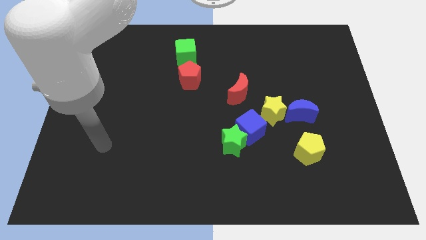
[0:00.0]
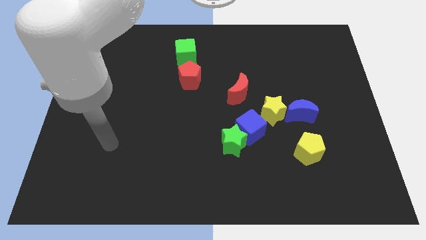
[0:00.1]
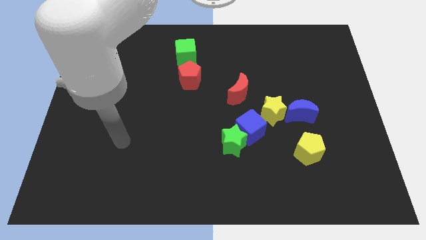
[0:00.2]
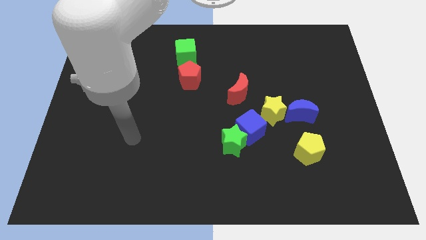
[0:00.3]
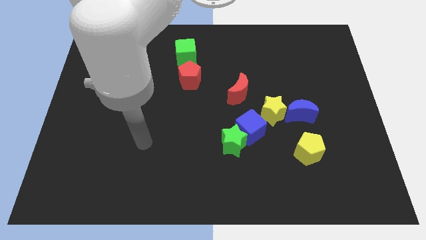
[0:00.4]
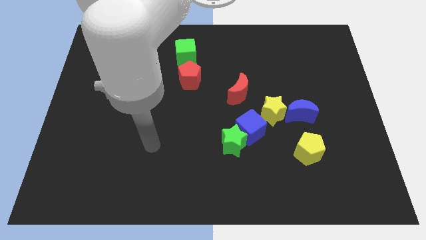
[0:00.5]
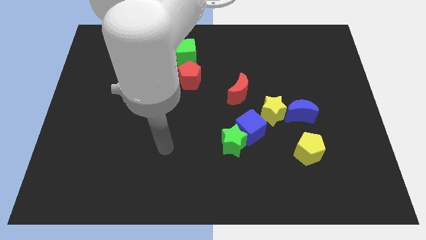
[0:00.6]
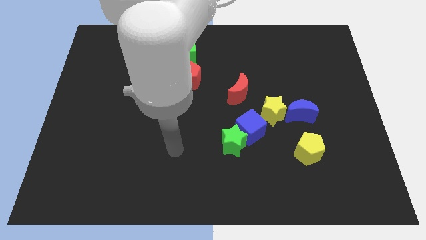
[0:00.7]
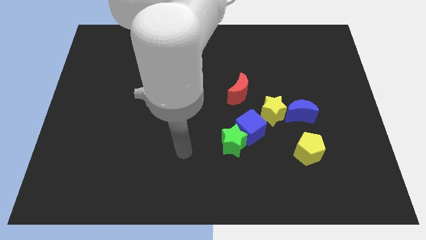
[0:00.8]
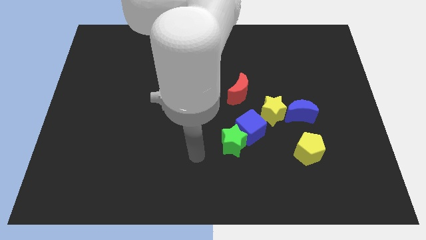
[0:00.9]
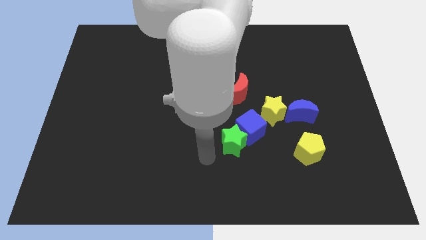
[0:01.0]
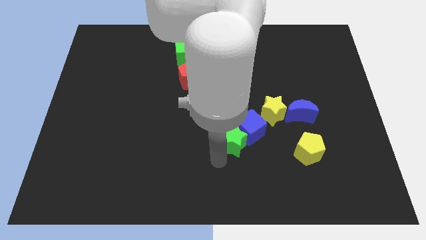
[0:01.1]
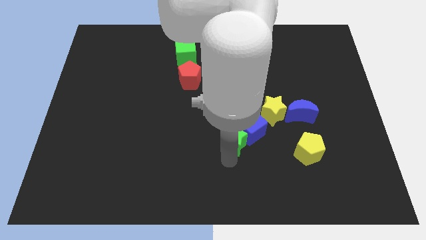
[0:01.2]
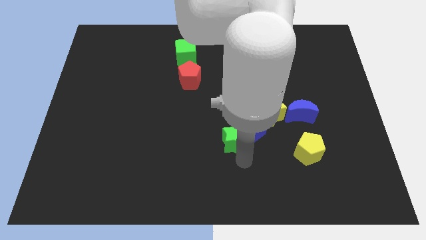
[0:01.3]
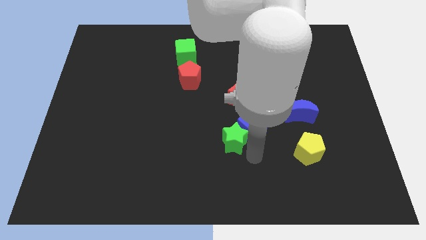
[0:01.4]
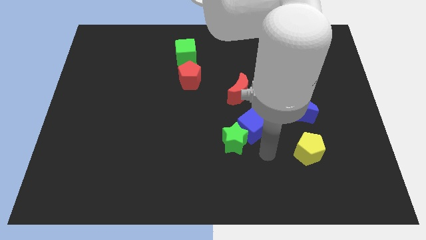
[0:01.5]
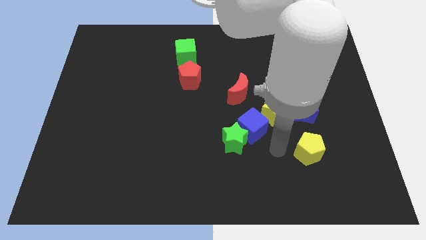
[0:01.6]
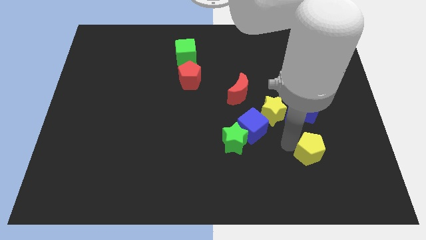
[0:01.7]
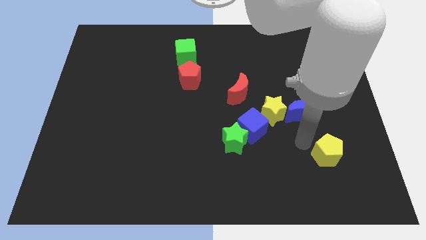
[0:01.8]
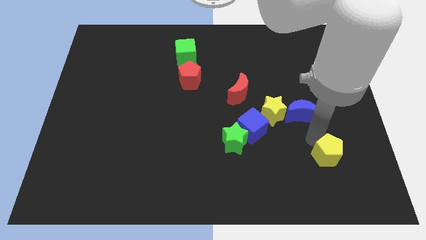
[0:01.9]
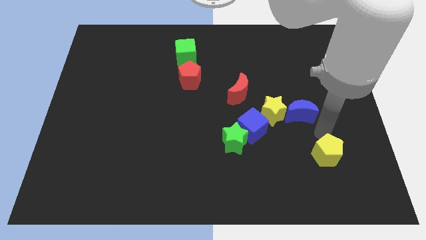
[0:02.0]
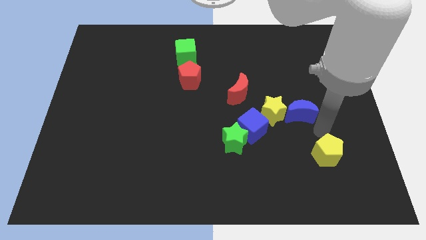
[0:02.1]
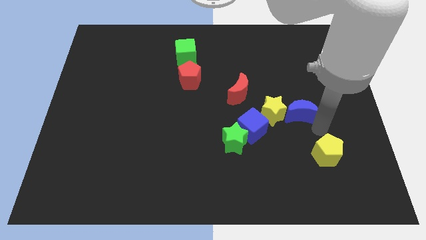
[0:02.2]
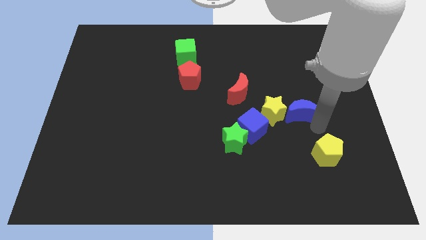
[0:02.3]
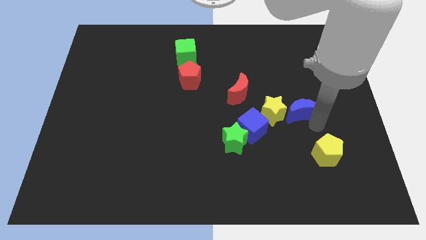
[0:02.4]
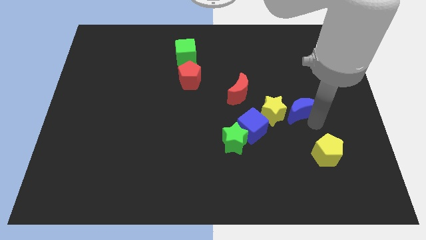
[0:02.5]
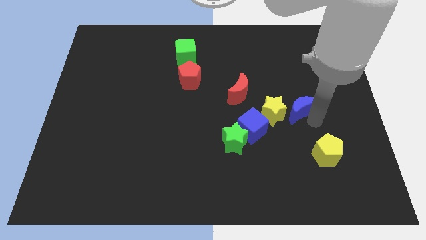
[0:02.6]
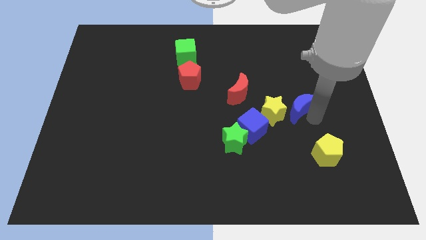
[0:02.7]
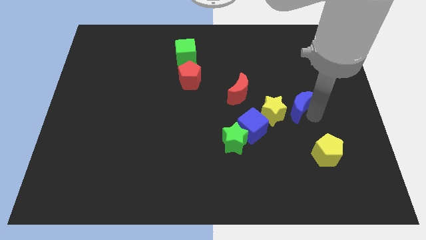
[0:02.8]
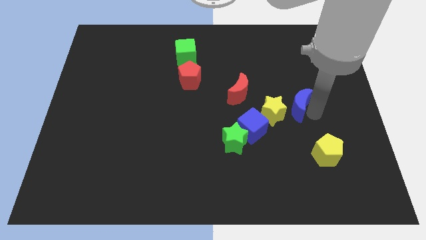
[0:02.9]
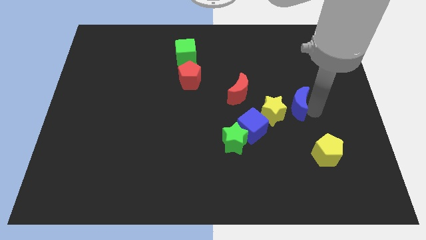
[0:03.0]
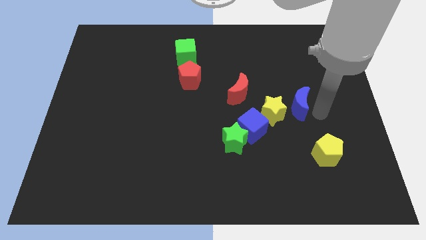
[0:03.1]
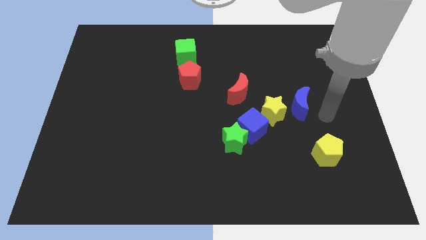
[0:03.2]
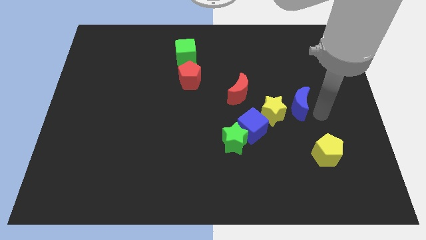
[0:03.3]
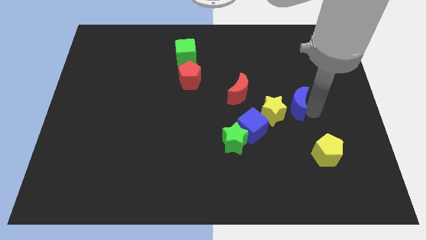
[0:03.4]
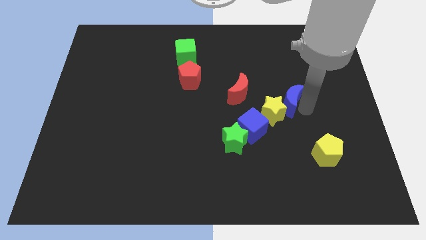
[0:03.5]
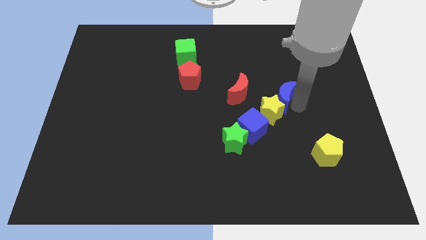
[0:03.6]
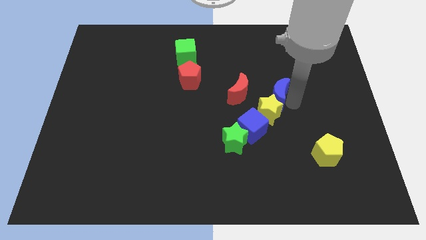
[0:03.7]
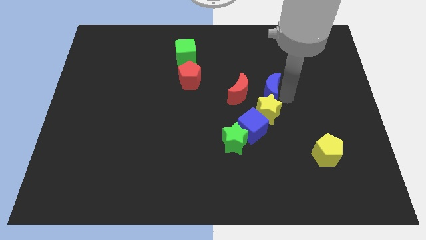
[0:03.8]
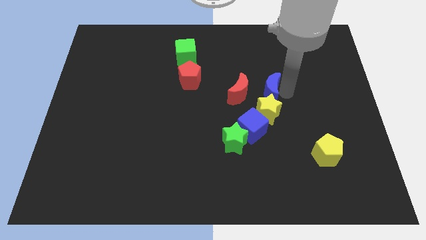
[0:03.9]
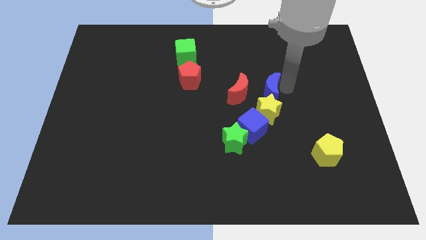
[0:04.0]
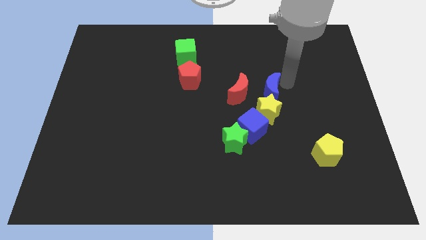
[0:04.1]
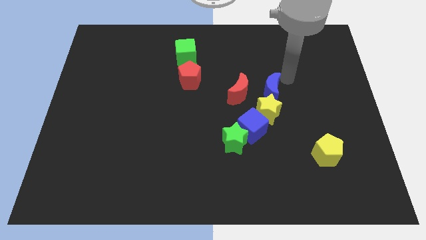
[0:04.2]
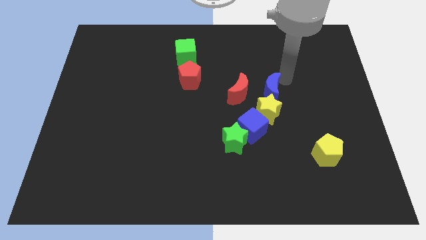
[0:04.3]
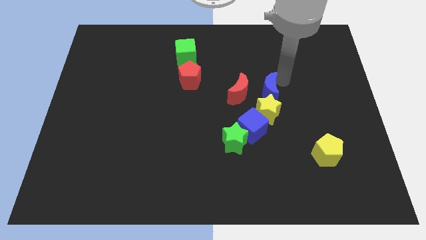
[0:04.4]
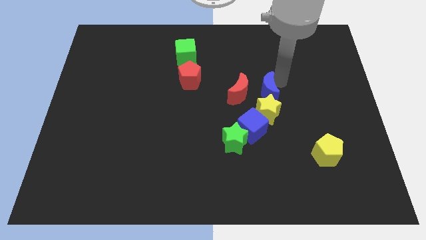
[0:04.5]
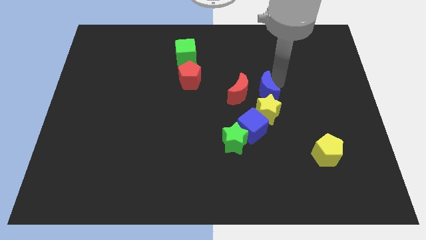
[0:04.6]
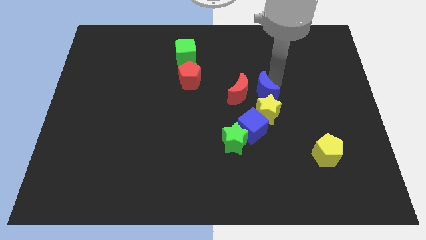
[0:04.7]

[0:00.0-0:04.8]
move the blue moon to the middle of the board

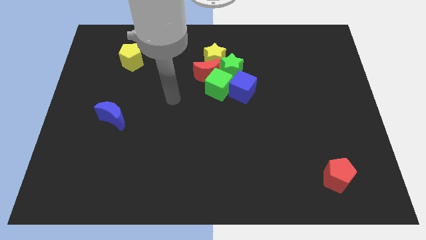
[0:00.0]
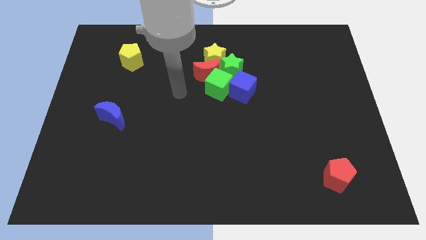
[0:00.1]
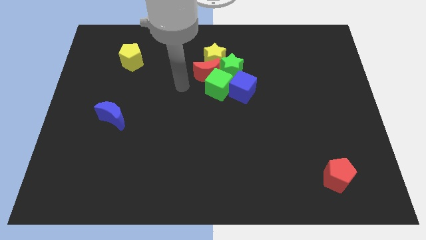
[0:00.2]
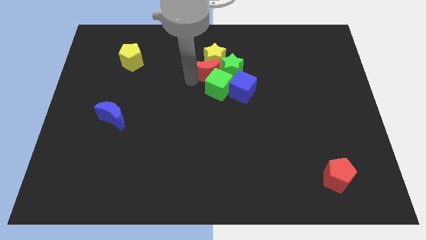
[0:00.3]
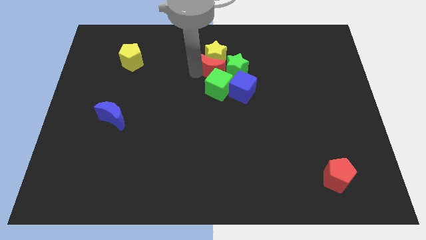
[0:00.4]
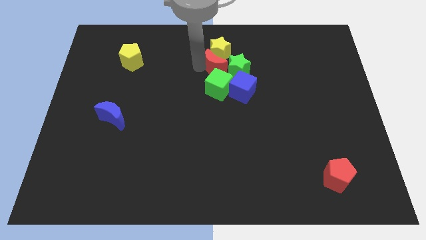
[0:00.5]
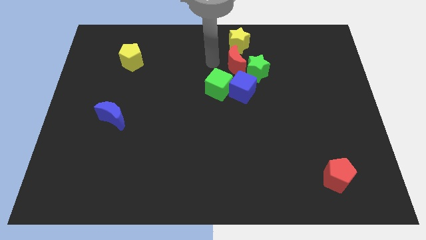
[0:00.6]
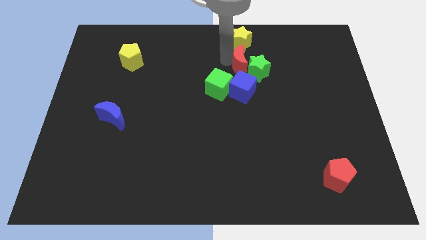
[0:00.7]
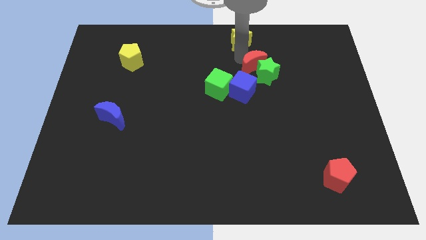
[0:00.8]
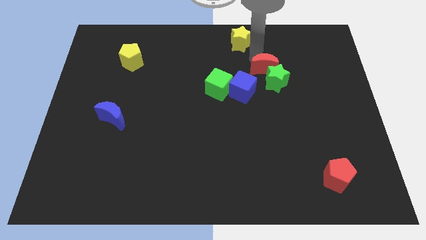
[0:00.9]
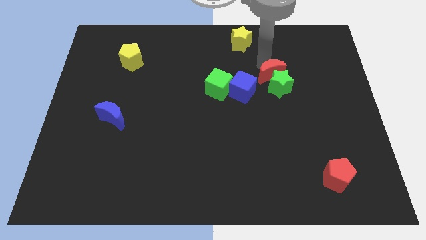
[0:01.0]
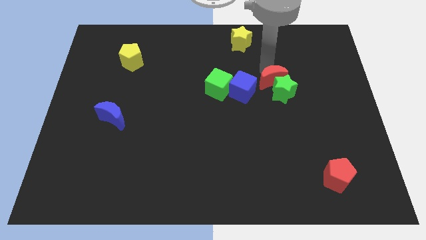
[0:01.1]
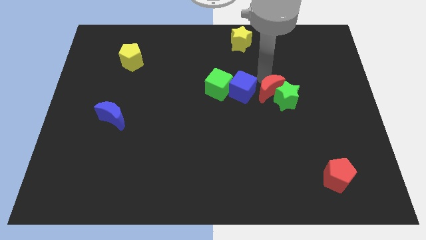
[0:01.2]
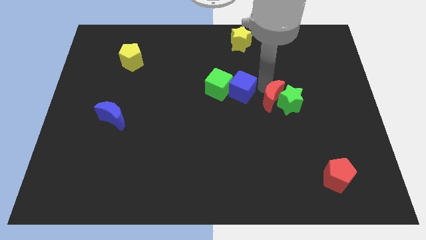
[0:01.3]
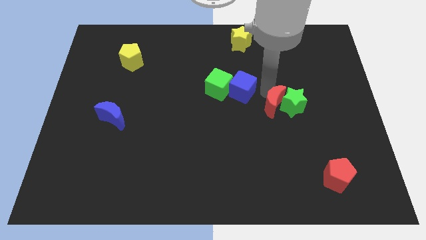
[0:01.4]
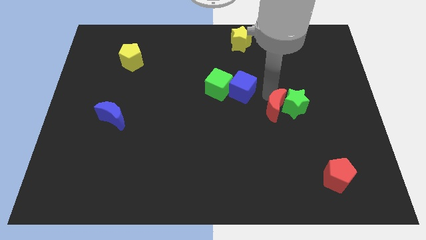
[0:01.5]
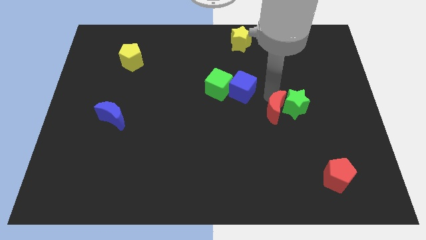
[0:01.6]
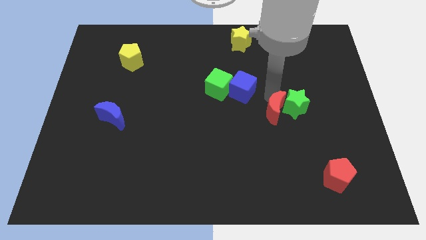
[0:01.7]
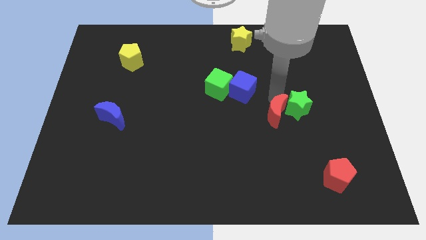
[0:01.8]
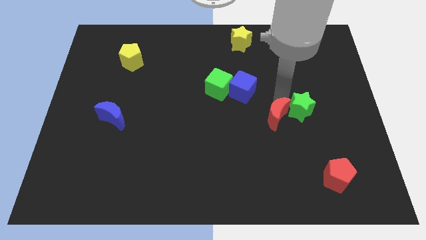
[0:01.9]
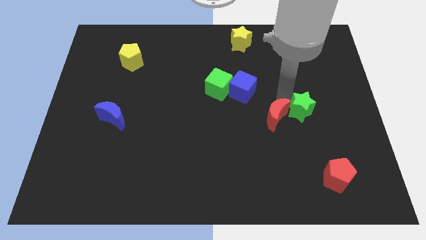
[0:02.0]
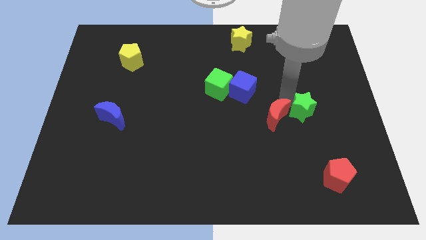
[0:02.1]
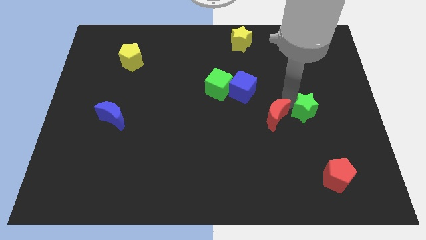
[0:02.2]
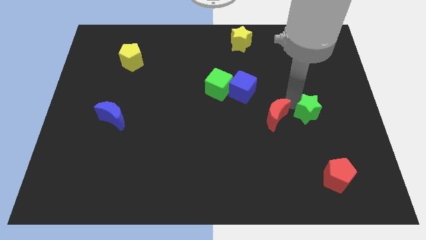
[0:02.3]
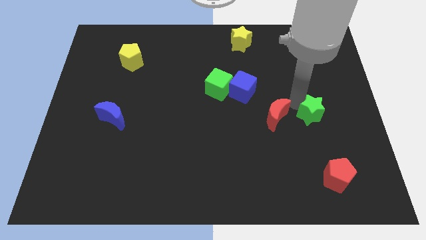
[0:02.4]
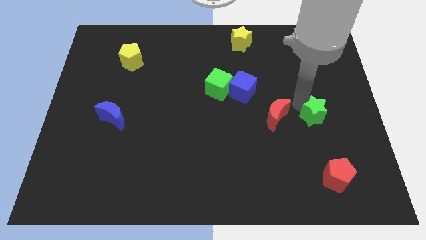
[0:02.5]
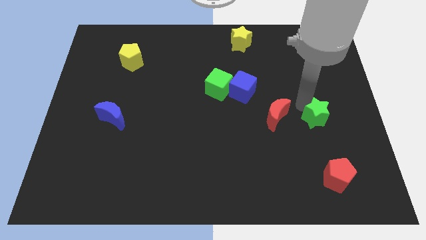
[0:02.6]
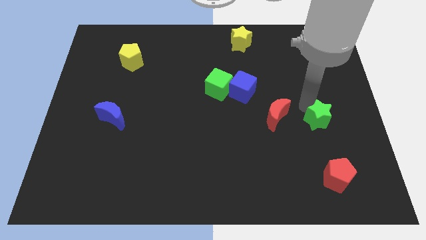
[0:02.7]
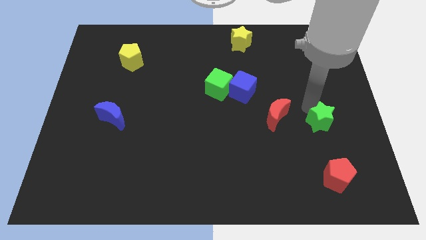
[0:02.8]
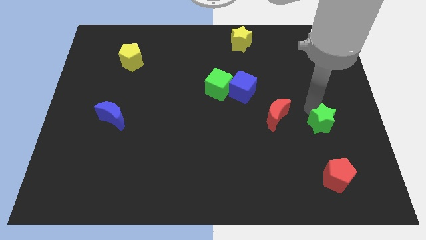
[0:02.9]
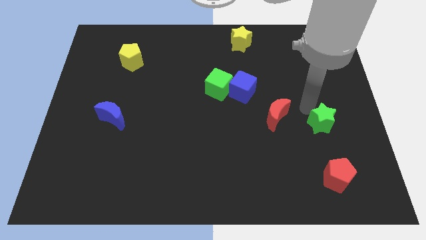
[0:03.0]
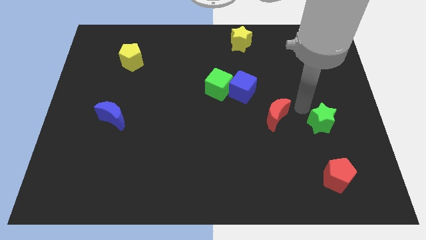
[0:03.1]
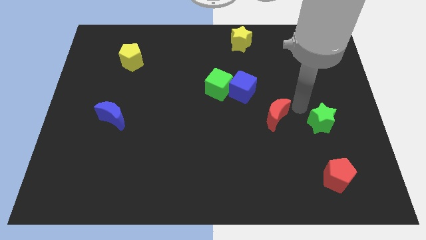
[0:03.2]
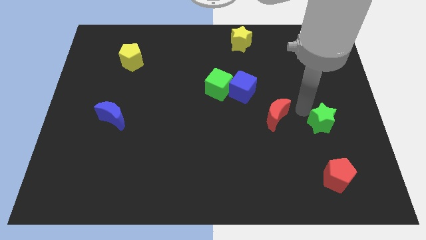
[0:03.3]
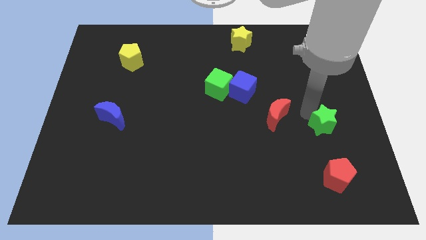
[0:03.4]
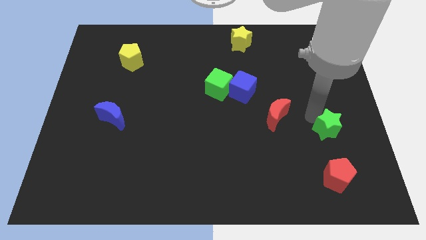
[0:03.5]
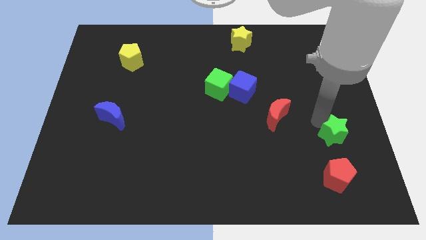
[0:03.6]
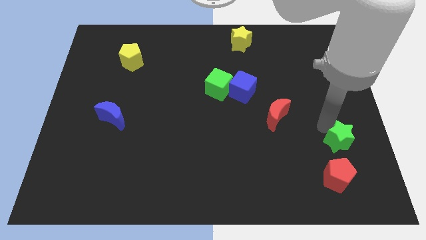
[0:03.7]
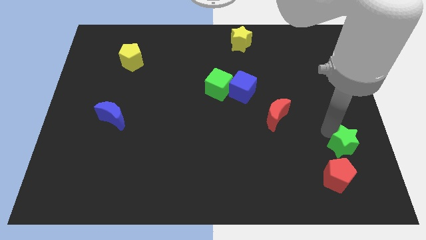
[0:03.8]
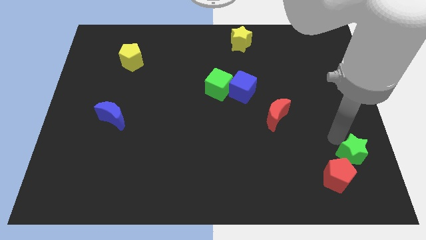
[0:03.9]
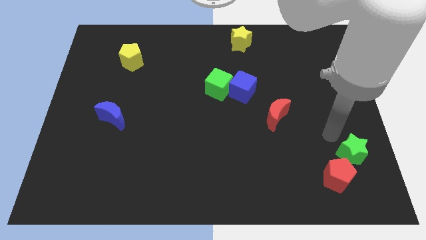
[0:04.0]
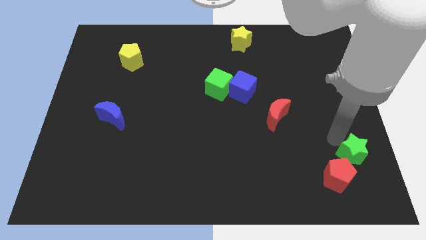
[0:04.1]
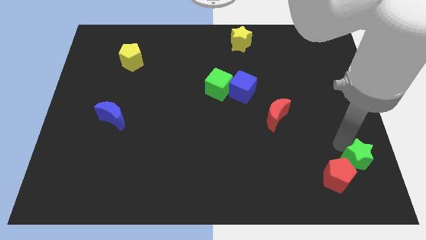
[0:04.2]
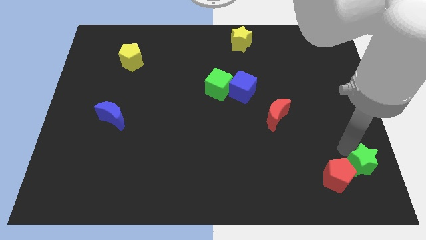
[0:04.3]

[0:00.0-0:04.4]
push the green star to the bottom right of the board
